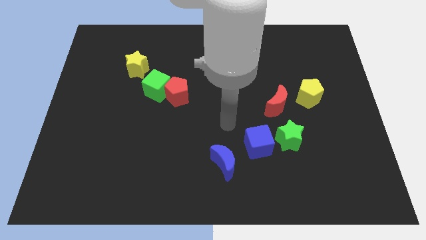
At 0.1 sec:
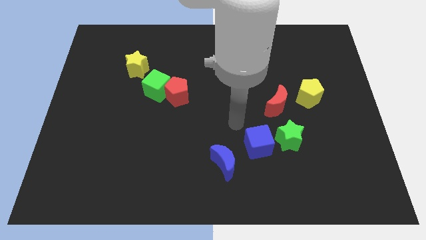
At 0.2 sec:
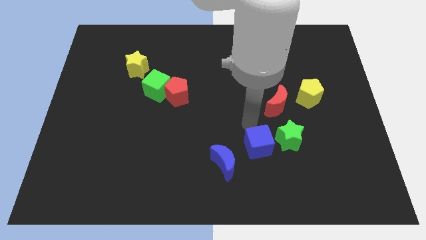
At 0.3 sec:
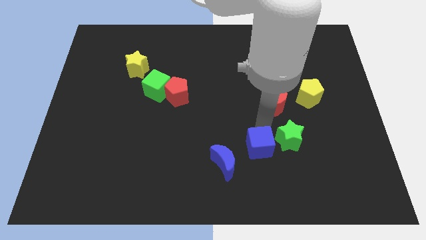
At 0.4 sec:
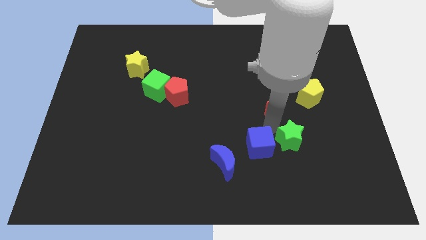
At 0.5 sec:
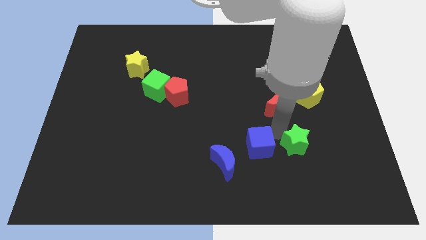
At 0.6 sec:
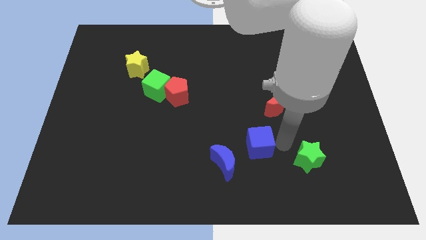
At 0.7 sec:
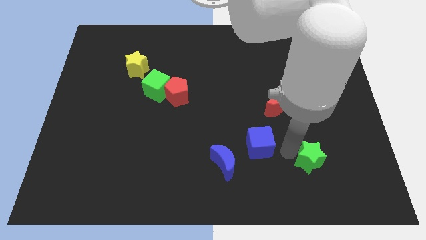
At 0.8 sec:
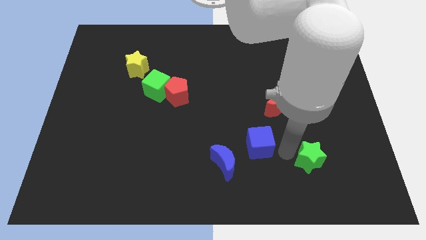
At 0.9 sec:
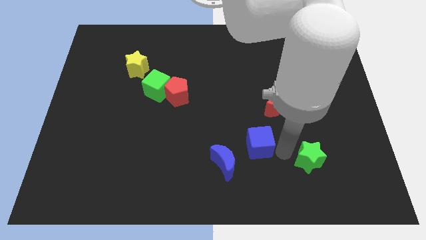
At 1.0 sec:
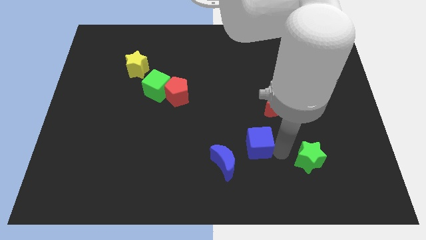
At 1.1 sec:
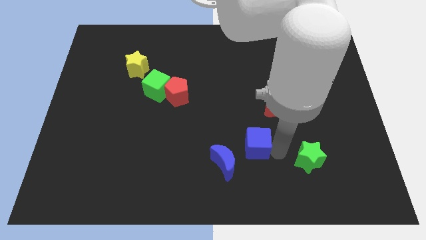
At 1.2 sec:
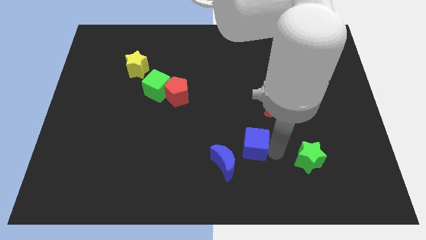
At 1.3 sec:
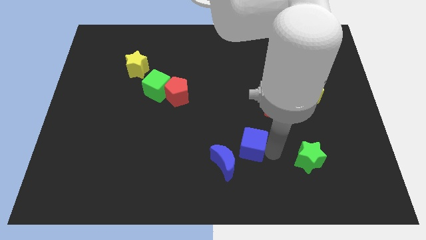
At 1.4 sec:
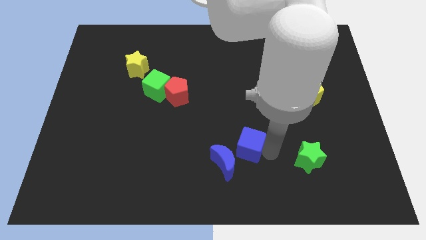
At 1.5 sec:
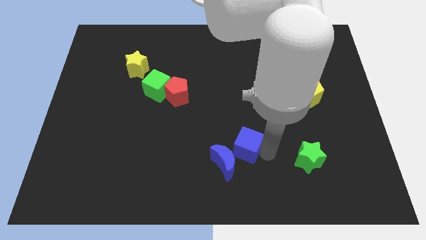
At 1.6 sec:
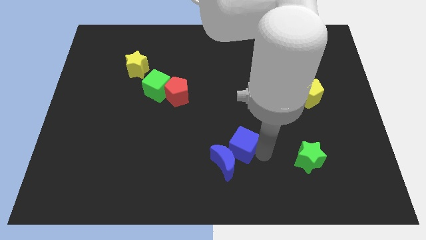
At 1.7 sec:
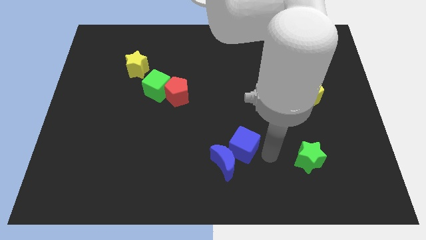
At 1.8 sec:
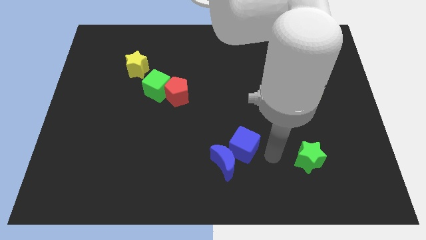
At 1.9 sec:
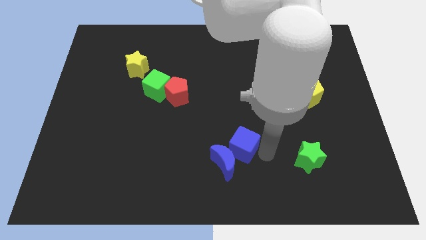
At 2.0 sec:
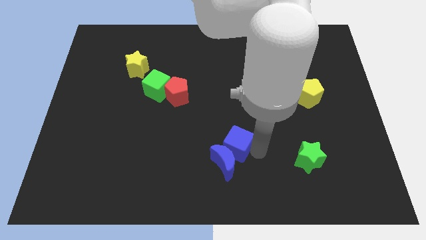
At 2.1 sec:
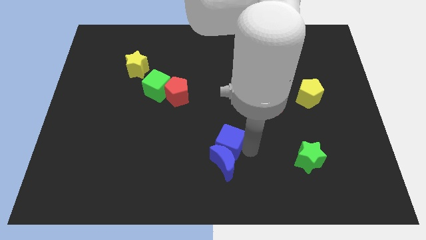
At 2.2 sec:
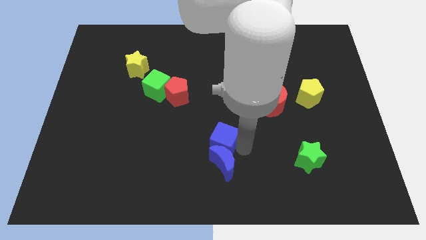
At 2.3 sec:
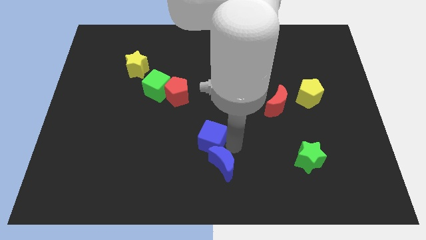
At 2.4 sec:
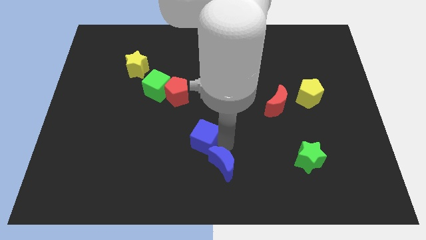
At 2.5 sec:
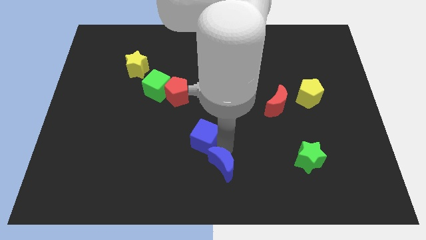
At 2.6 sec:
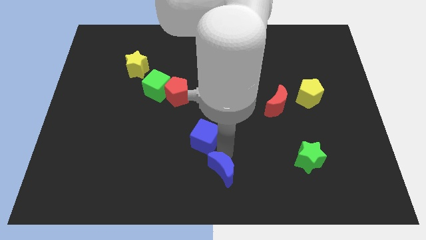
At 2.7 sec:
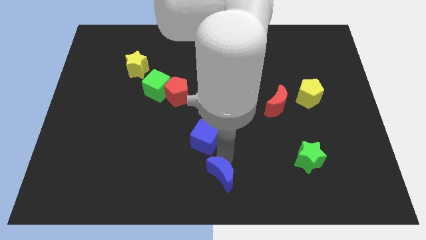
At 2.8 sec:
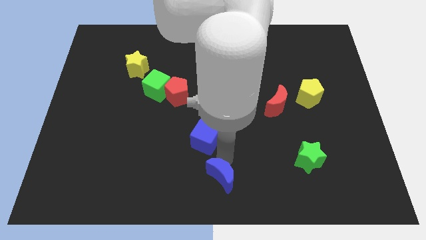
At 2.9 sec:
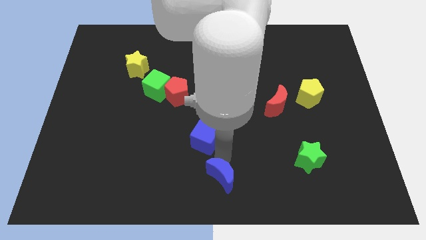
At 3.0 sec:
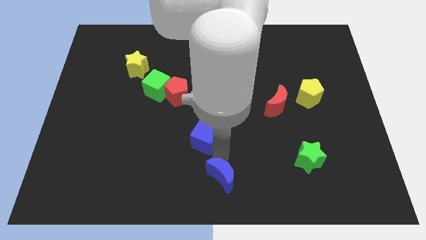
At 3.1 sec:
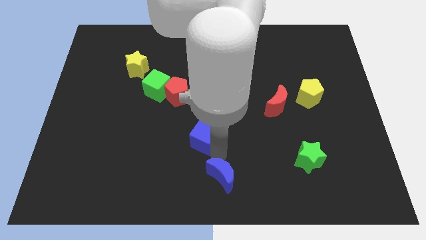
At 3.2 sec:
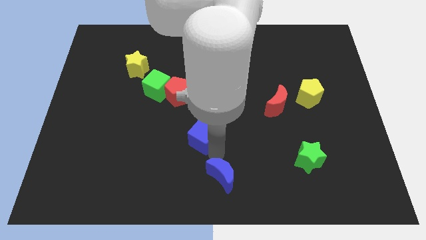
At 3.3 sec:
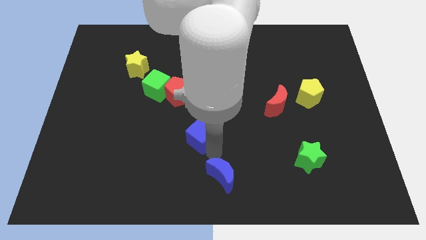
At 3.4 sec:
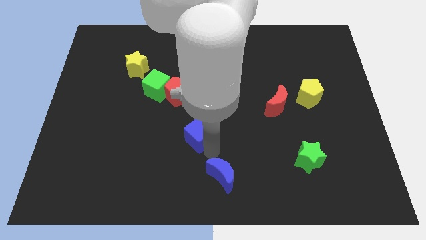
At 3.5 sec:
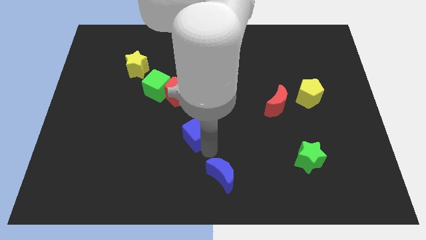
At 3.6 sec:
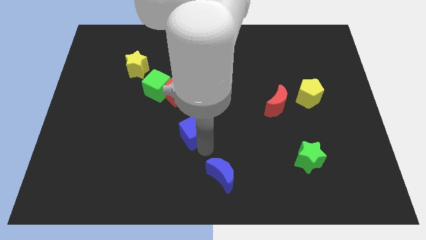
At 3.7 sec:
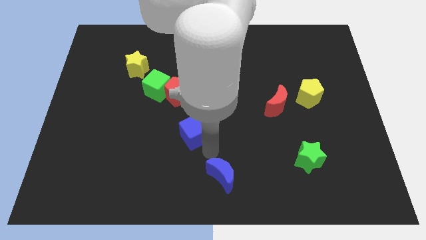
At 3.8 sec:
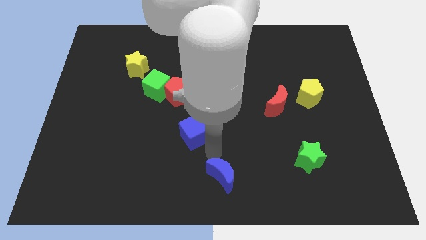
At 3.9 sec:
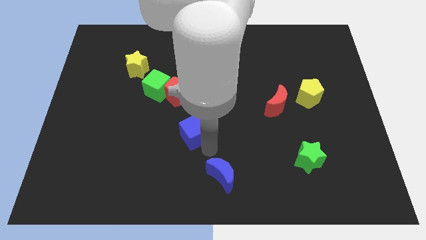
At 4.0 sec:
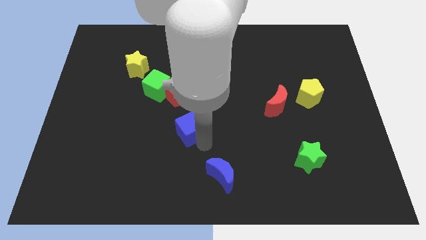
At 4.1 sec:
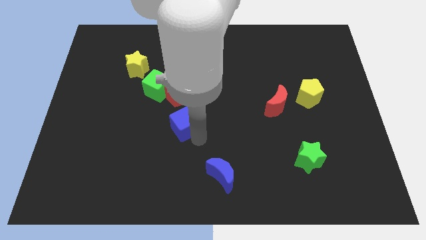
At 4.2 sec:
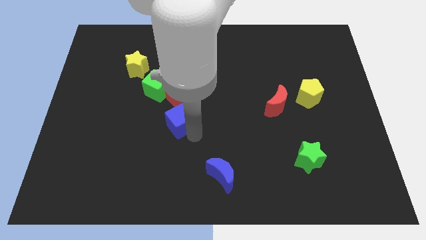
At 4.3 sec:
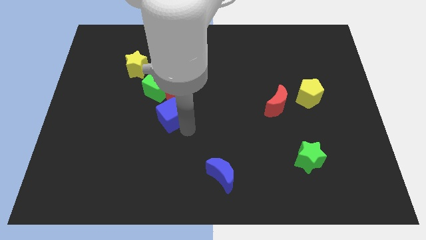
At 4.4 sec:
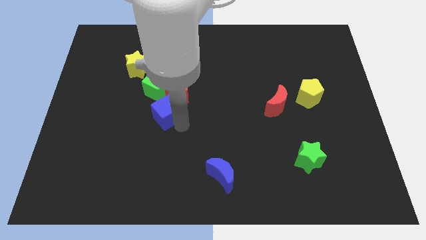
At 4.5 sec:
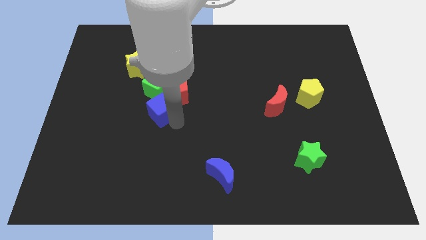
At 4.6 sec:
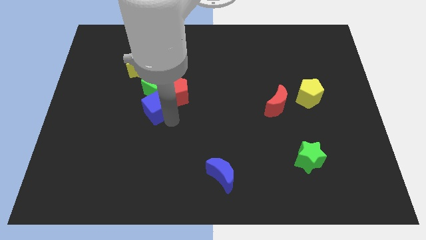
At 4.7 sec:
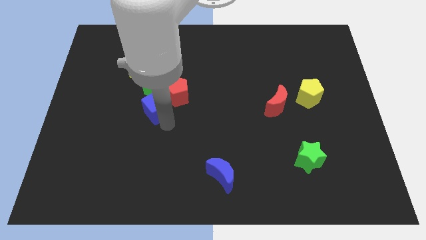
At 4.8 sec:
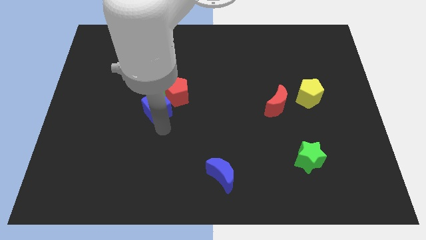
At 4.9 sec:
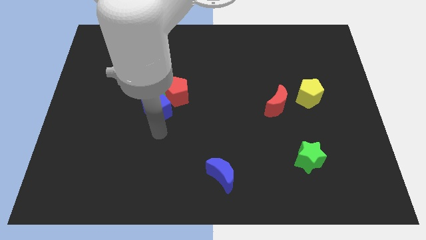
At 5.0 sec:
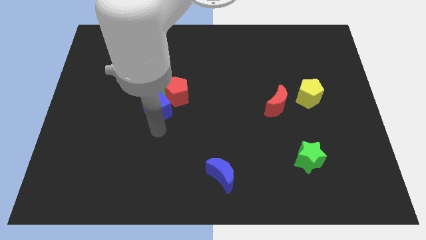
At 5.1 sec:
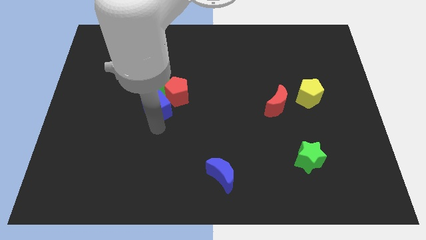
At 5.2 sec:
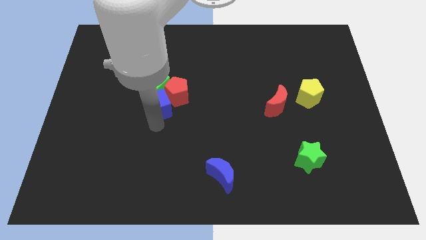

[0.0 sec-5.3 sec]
put the blue cube towards the green cube

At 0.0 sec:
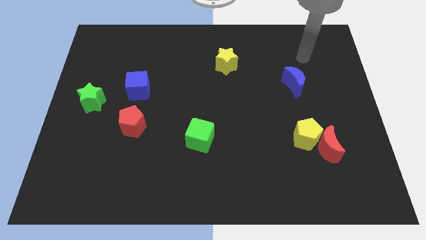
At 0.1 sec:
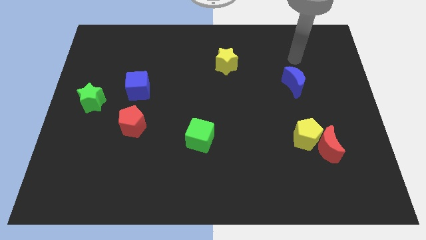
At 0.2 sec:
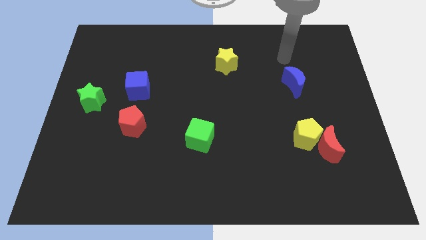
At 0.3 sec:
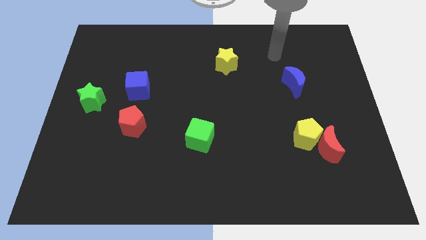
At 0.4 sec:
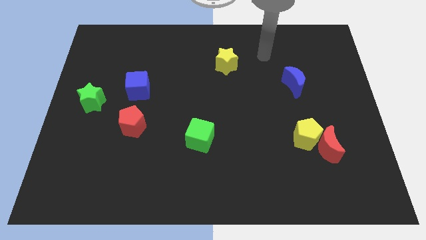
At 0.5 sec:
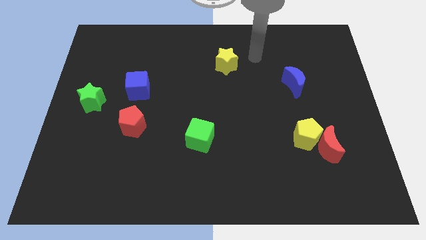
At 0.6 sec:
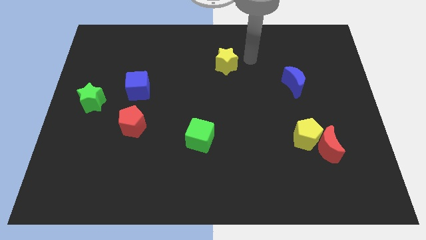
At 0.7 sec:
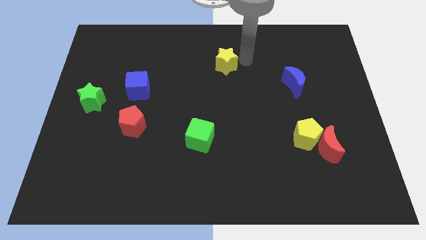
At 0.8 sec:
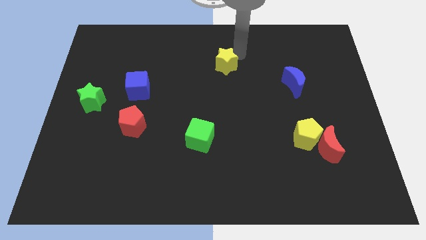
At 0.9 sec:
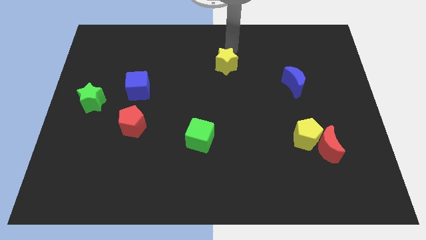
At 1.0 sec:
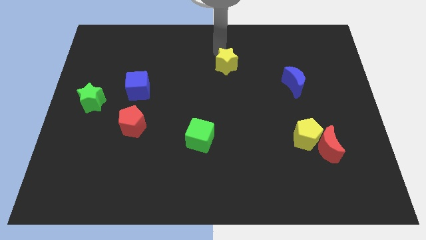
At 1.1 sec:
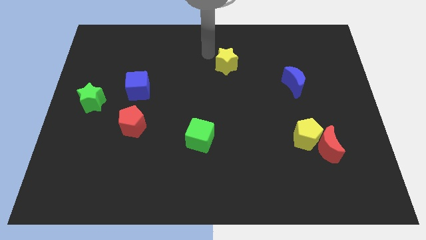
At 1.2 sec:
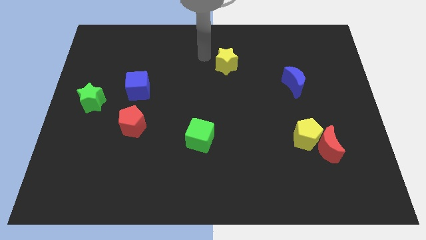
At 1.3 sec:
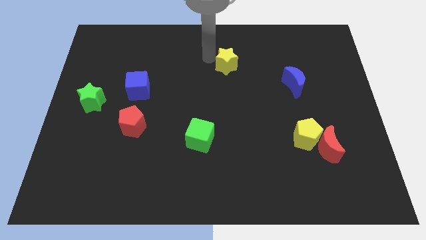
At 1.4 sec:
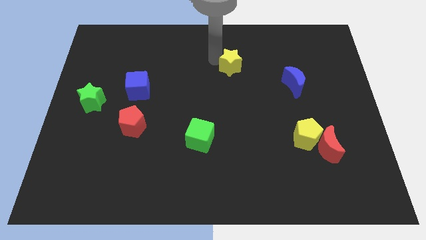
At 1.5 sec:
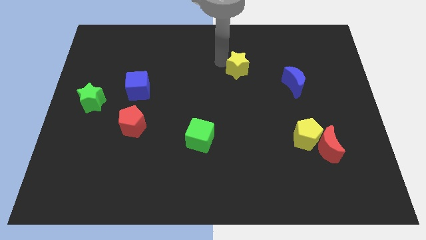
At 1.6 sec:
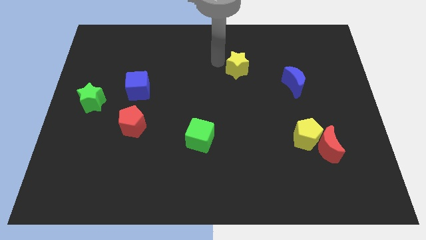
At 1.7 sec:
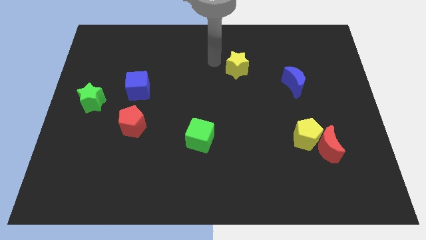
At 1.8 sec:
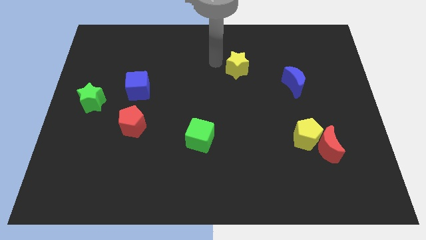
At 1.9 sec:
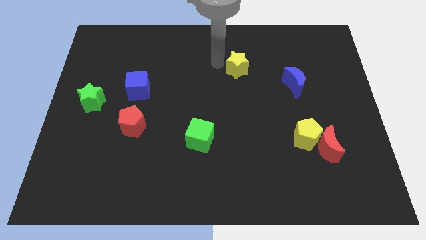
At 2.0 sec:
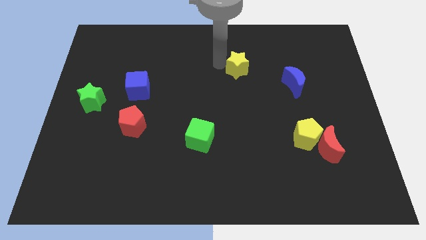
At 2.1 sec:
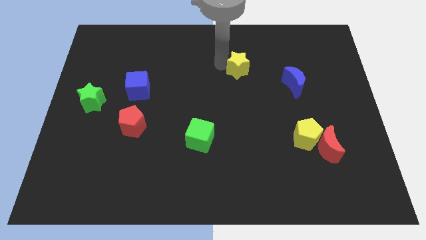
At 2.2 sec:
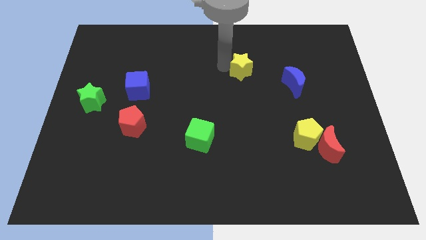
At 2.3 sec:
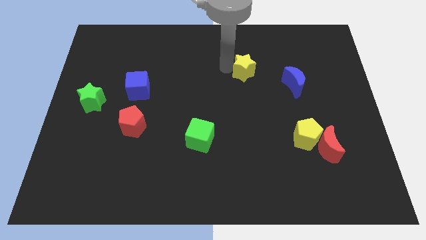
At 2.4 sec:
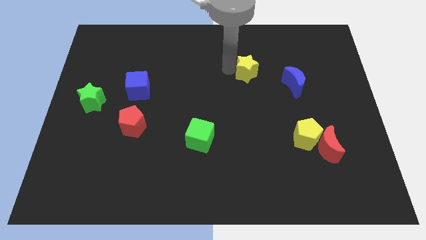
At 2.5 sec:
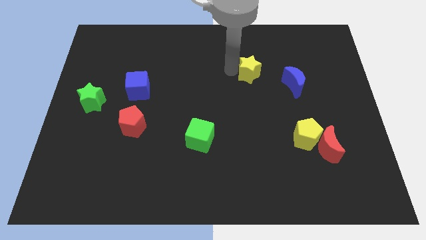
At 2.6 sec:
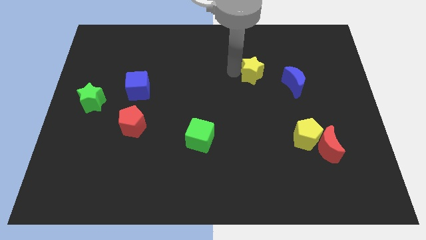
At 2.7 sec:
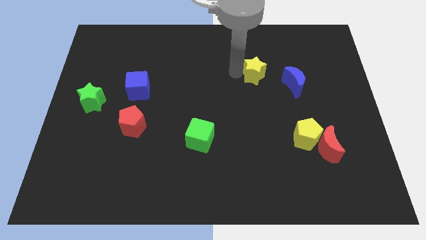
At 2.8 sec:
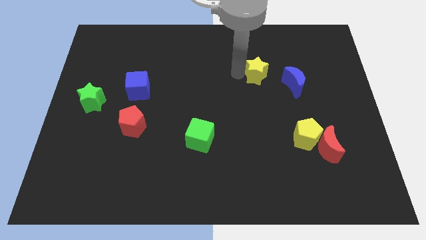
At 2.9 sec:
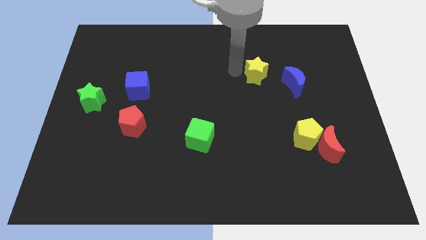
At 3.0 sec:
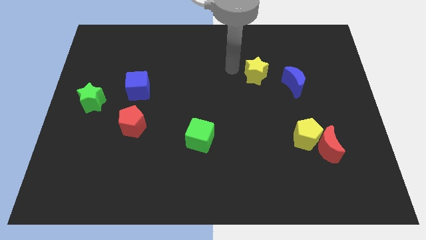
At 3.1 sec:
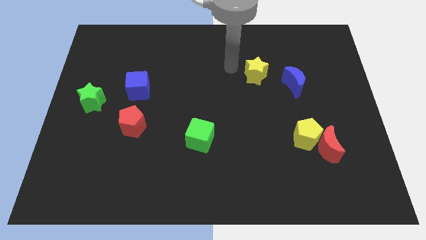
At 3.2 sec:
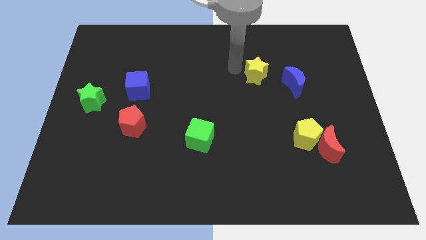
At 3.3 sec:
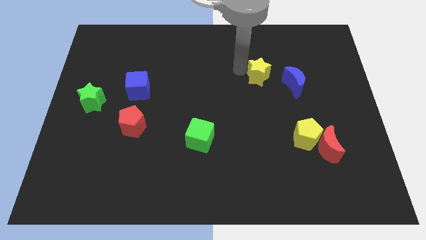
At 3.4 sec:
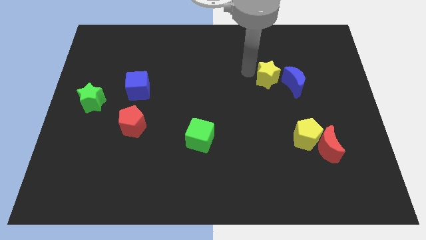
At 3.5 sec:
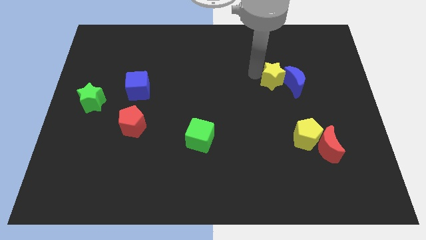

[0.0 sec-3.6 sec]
move the yellow star close to the blue moon
